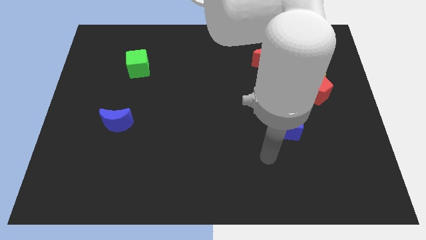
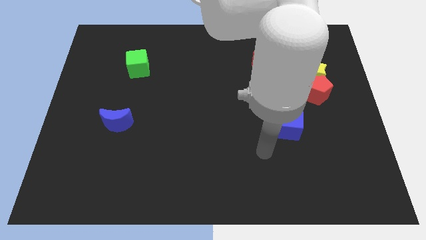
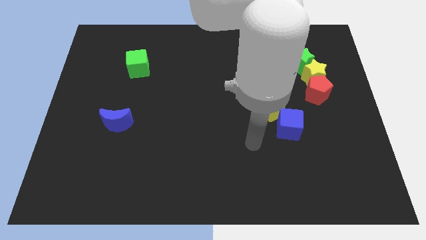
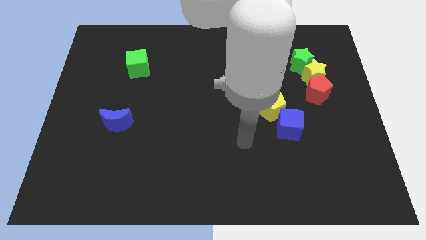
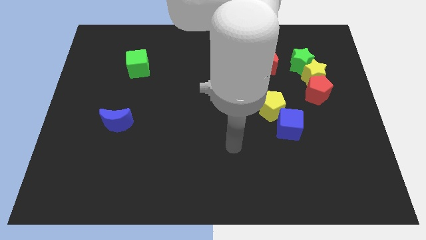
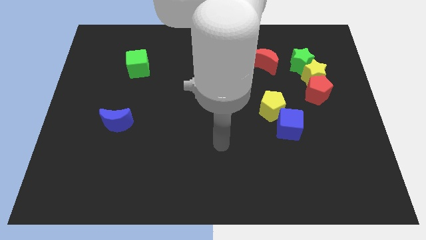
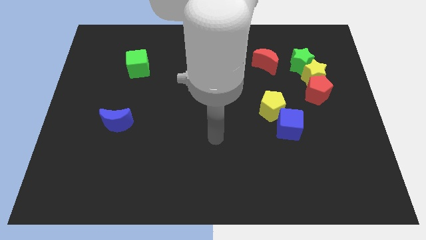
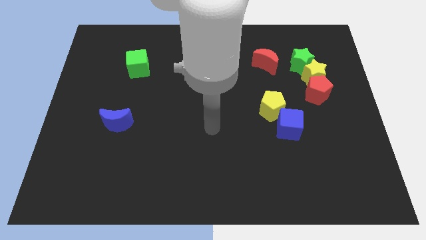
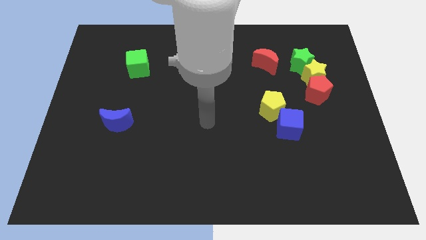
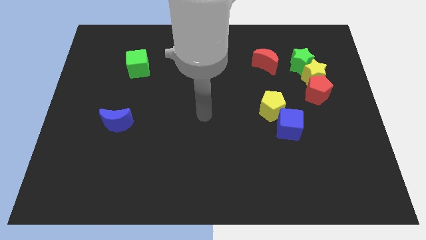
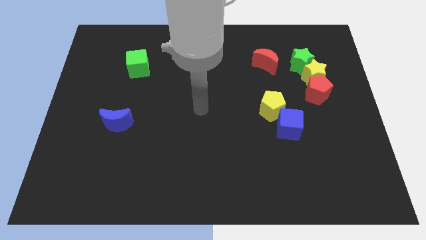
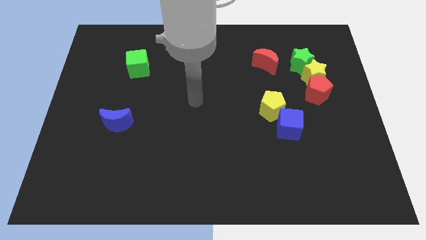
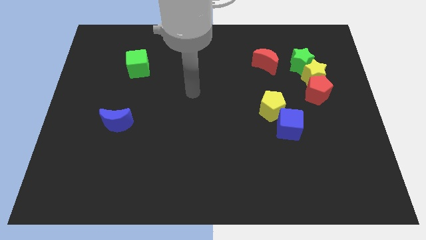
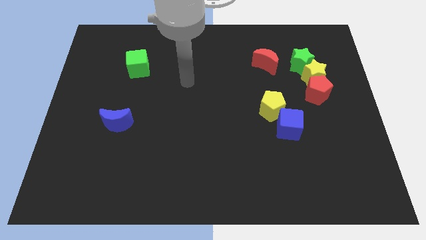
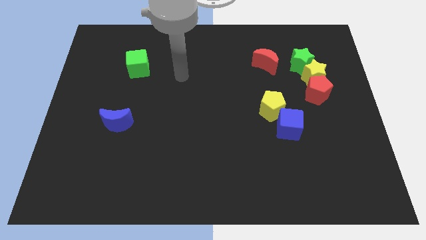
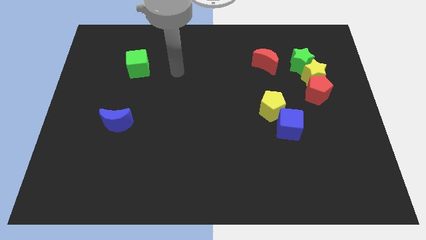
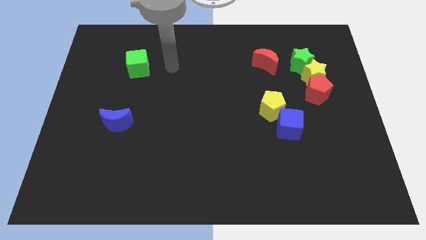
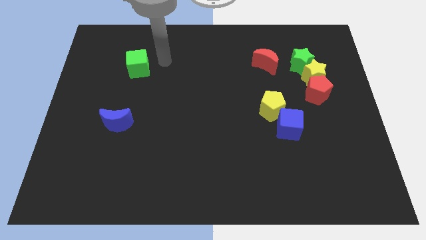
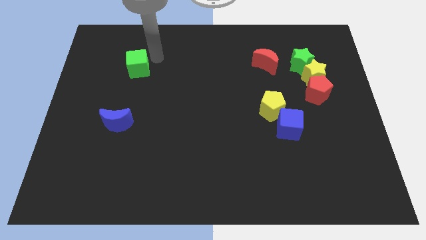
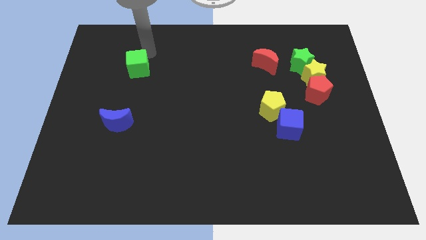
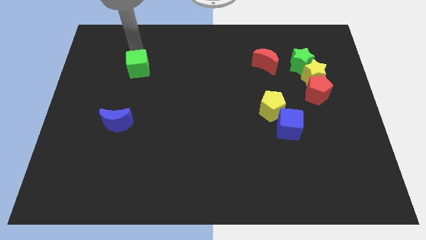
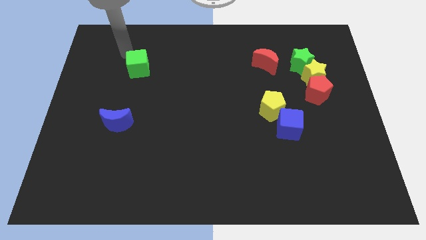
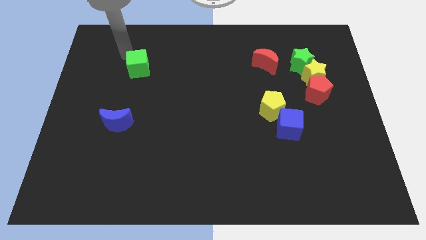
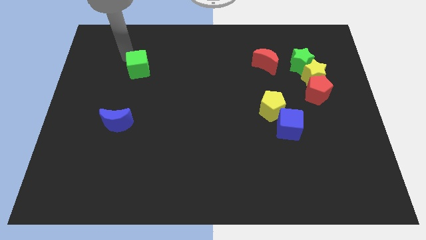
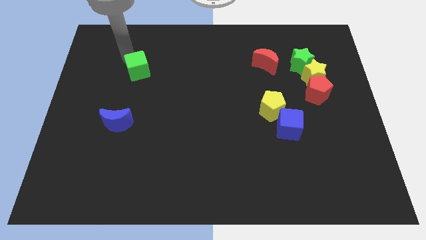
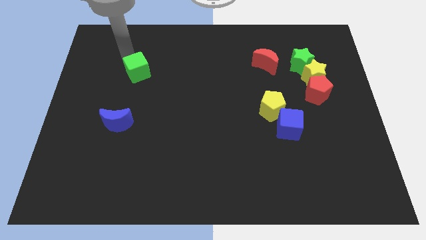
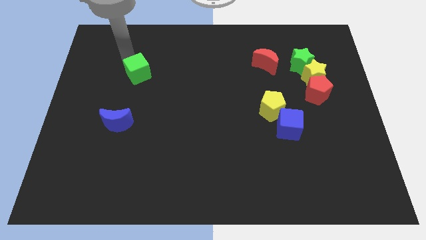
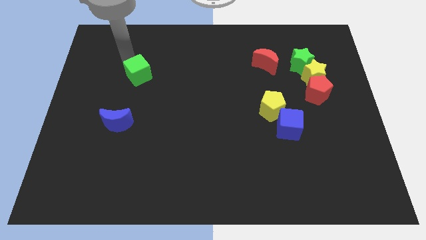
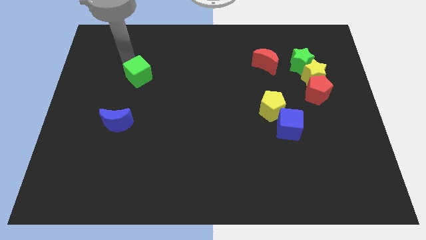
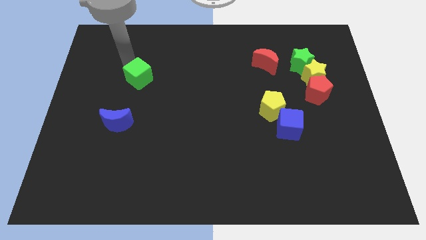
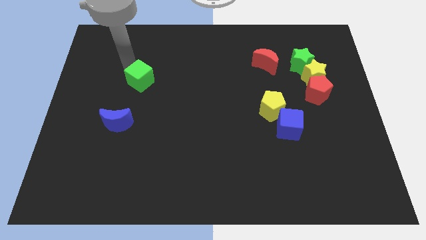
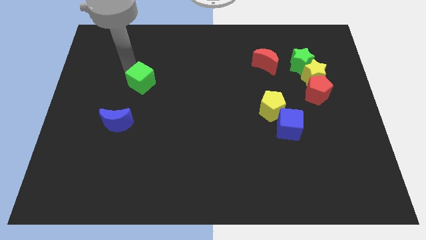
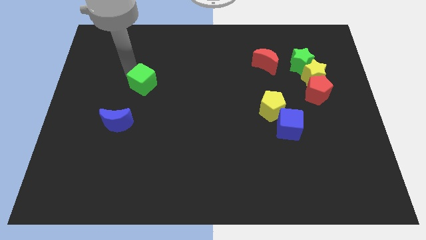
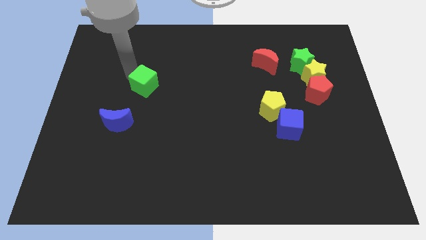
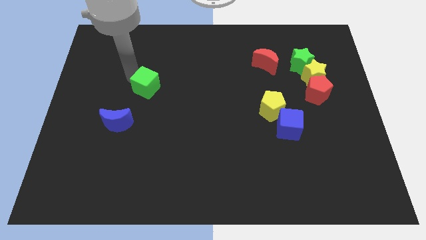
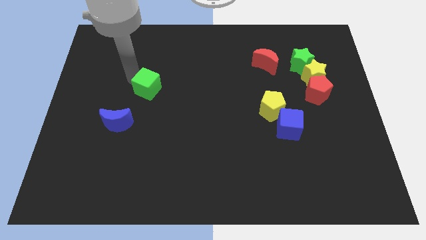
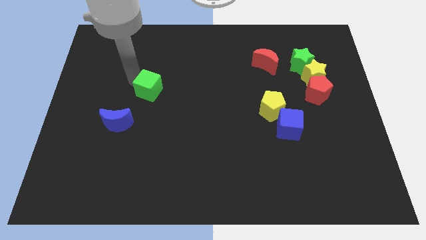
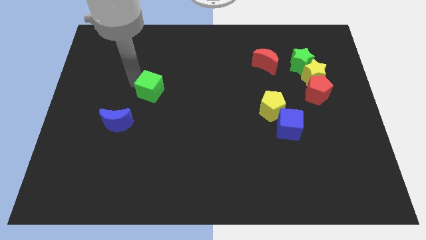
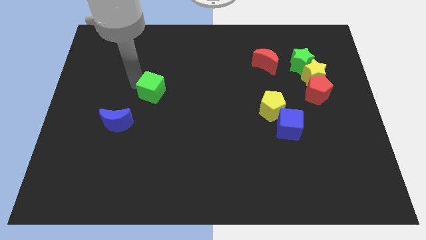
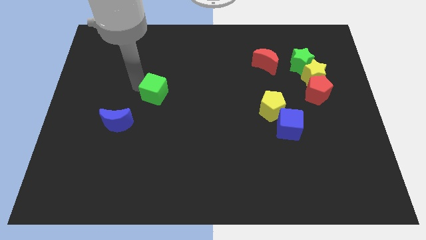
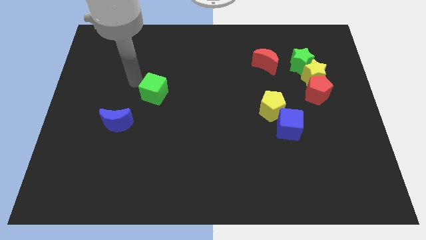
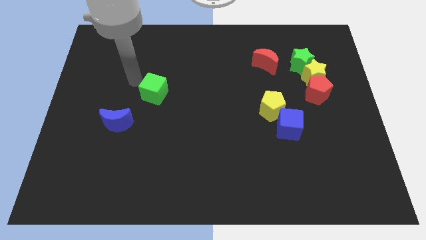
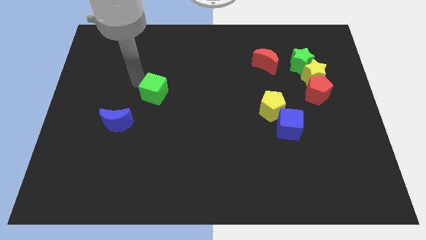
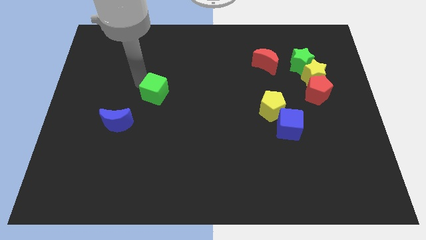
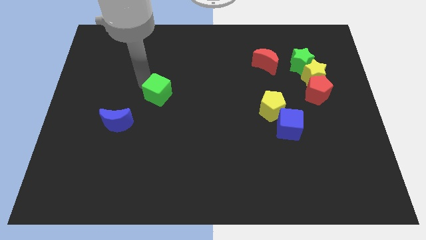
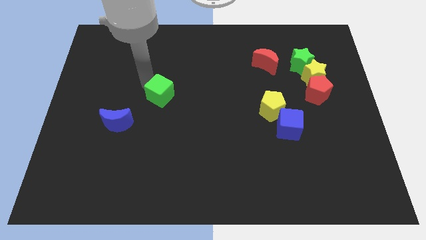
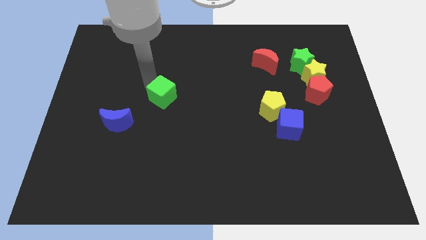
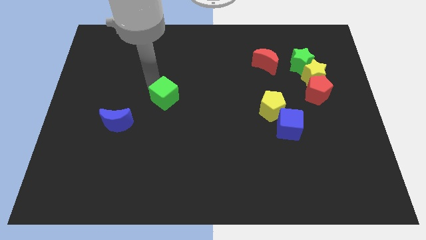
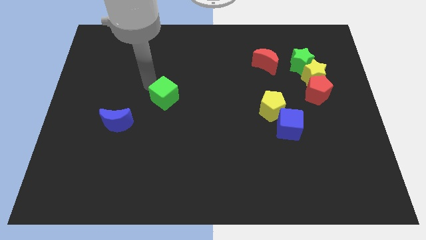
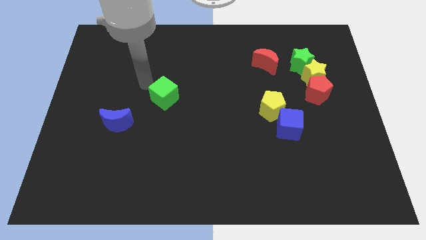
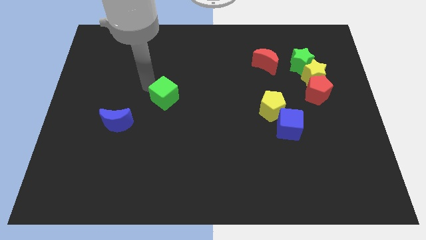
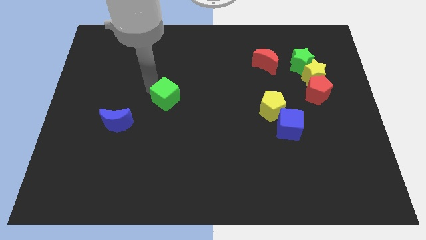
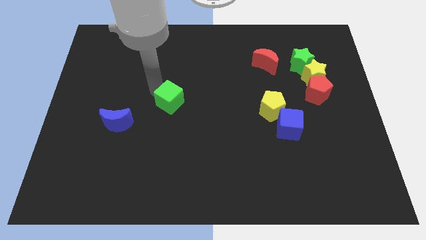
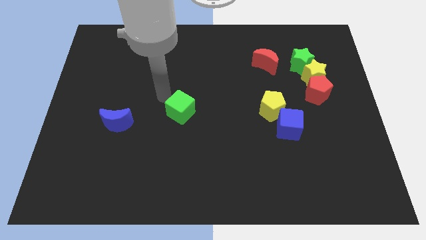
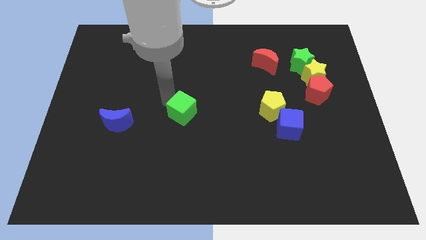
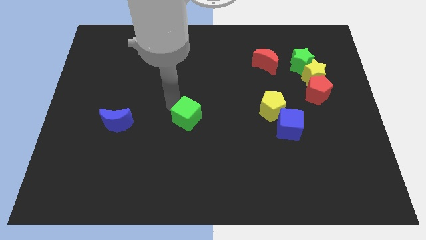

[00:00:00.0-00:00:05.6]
move the green cube downwards and then right

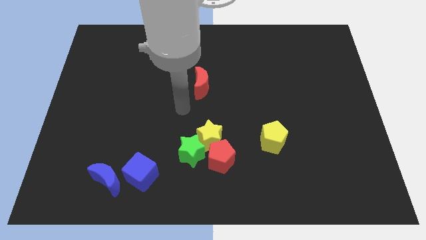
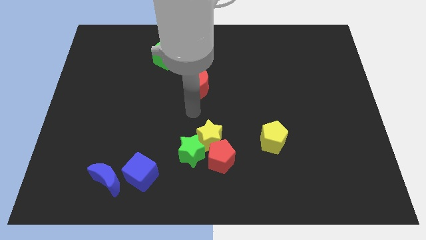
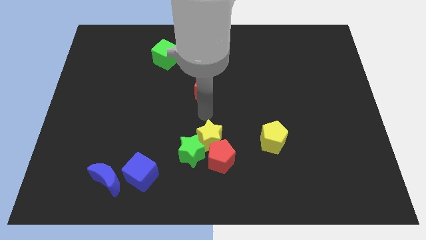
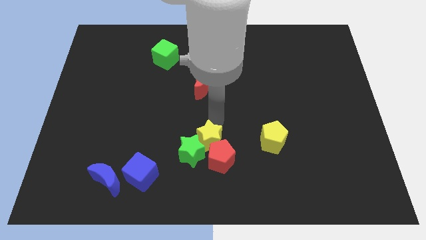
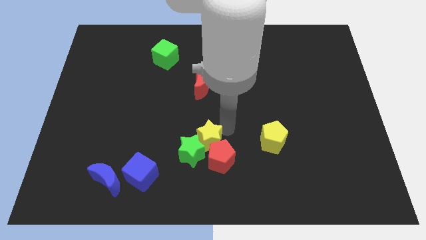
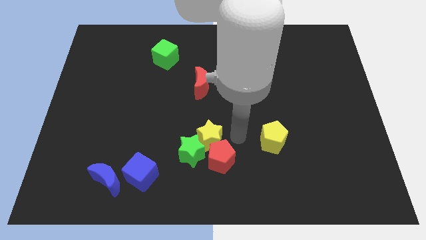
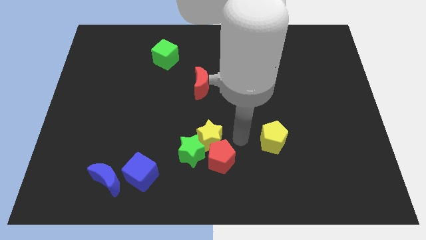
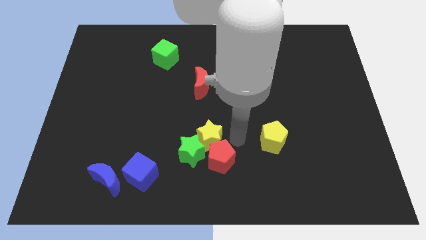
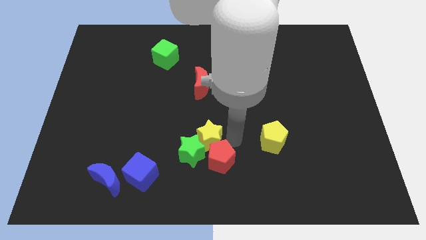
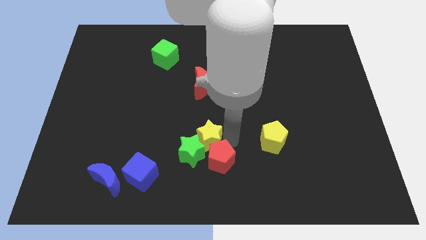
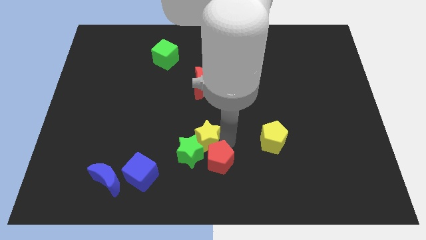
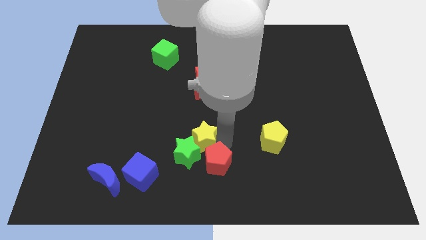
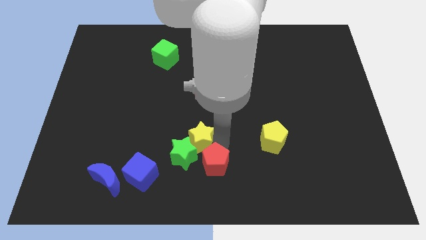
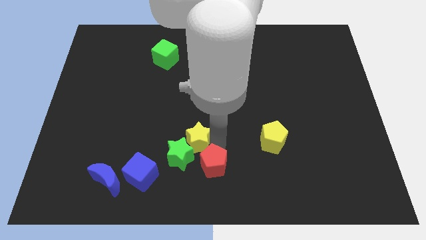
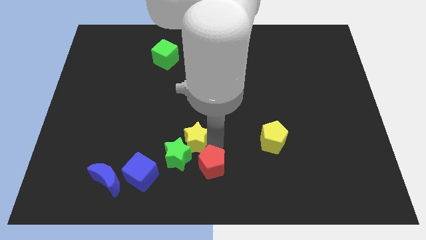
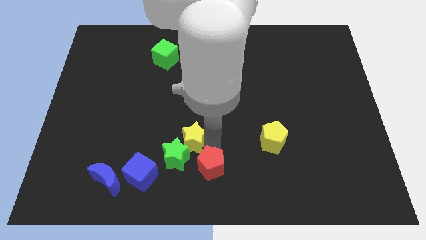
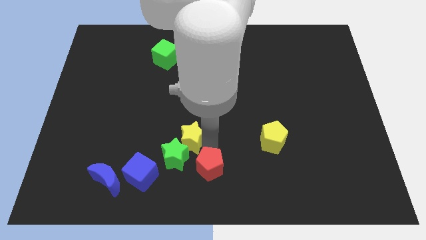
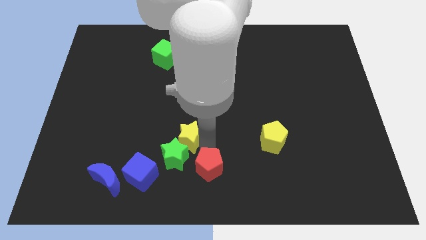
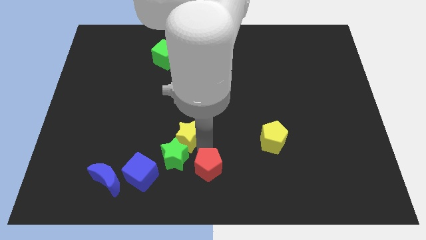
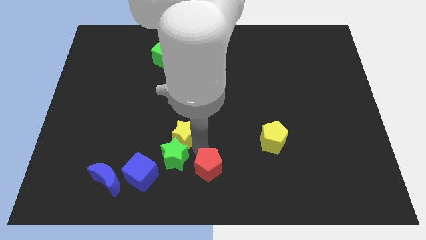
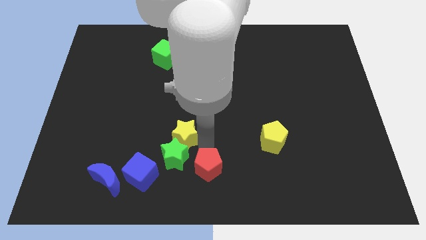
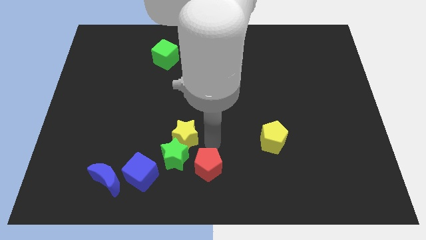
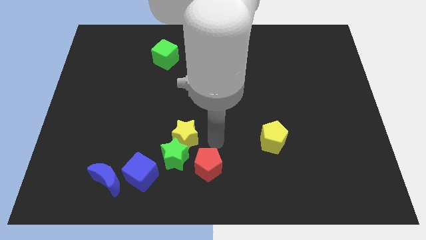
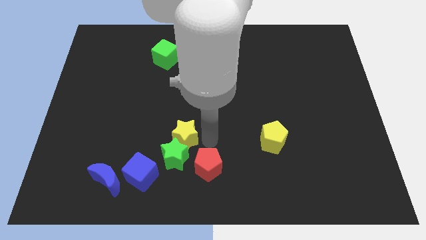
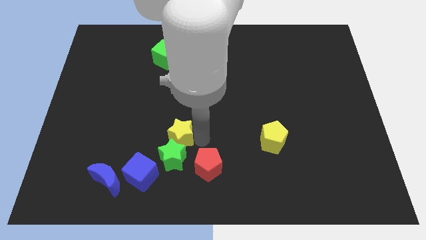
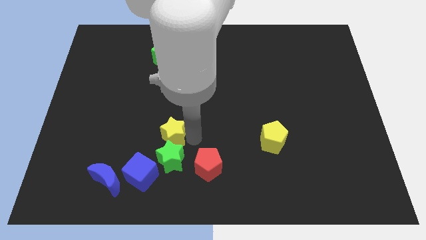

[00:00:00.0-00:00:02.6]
move the yellow star a bit left
